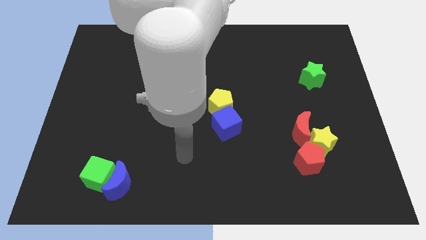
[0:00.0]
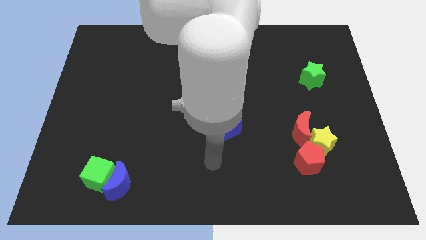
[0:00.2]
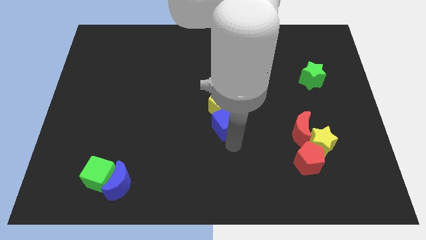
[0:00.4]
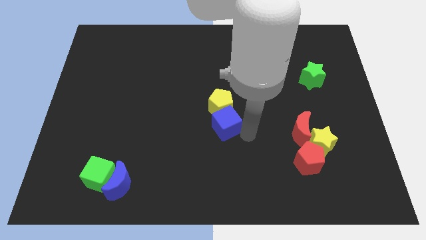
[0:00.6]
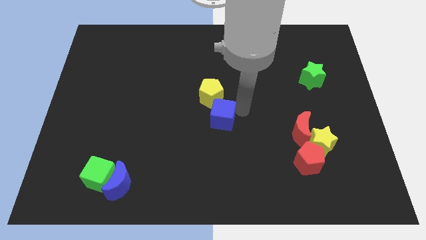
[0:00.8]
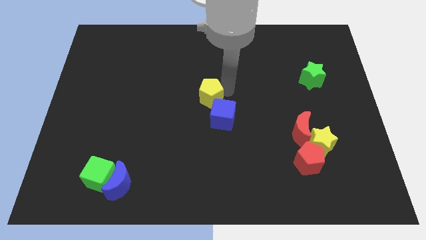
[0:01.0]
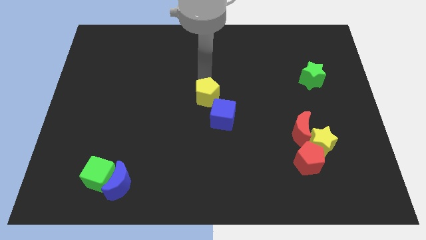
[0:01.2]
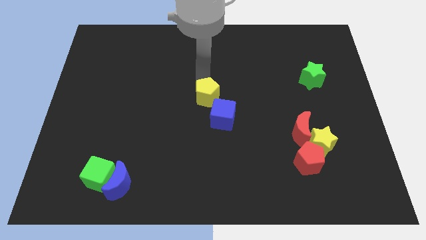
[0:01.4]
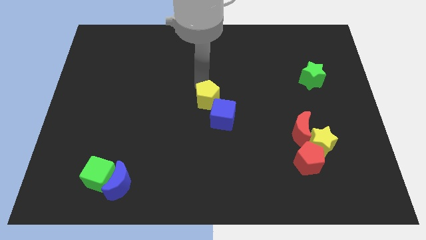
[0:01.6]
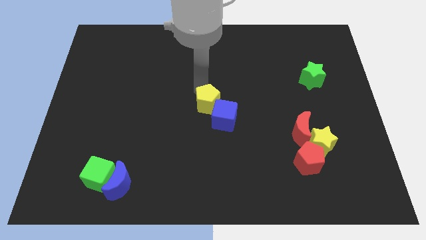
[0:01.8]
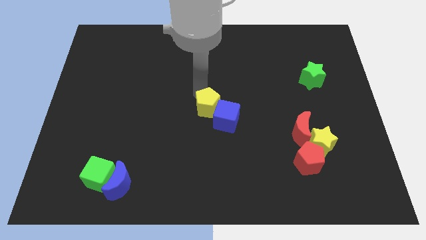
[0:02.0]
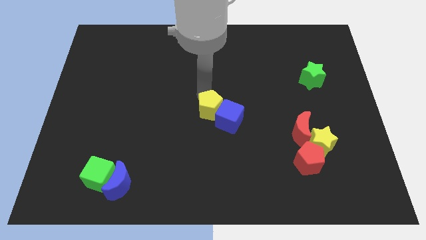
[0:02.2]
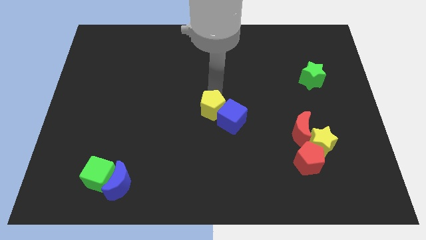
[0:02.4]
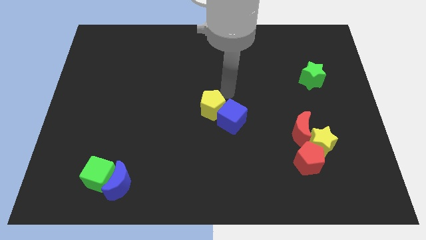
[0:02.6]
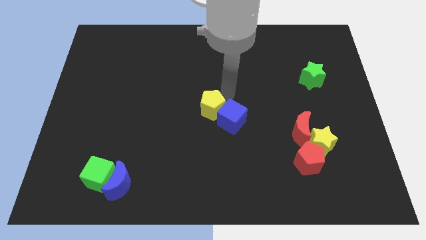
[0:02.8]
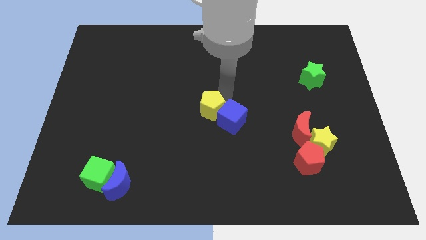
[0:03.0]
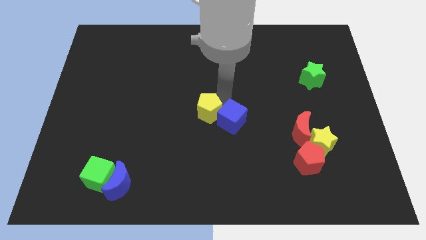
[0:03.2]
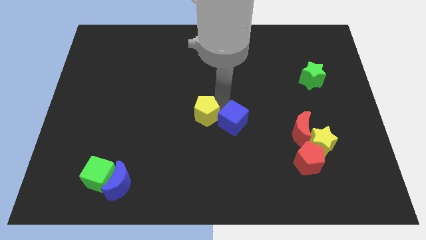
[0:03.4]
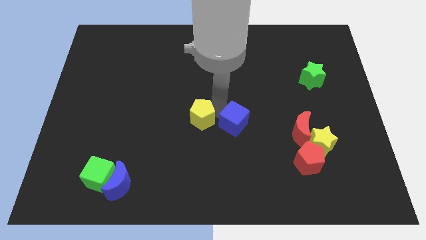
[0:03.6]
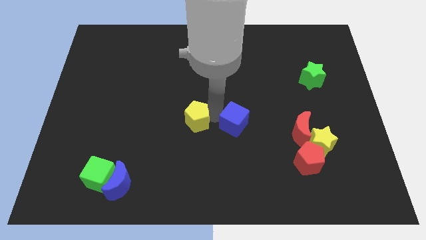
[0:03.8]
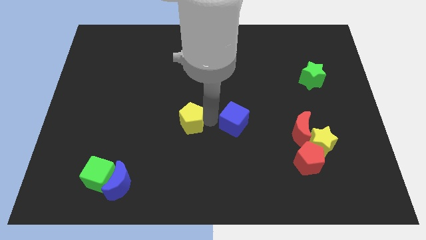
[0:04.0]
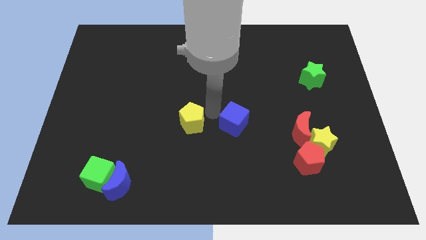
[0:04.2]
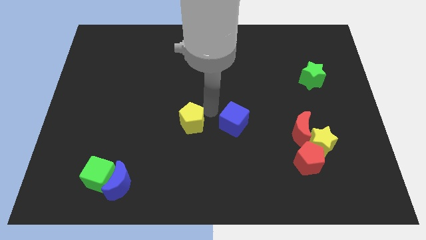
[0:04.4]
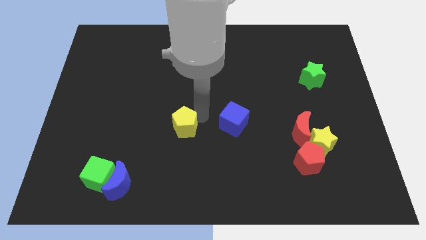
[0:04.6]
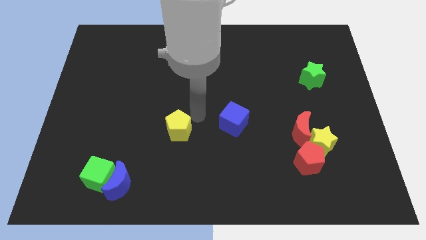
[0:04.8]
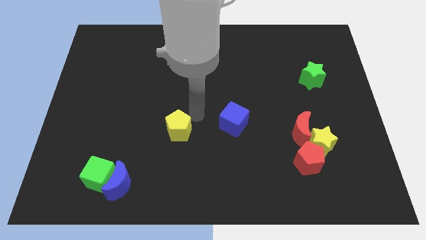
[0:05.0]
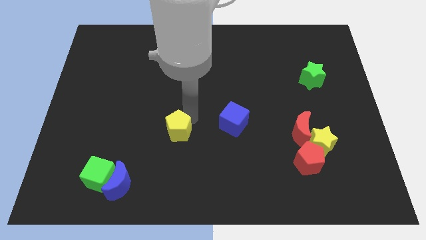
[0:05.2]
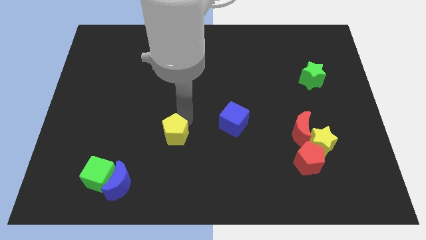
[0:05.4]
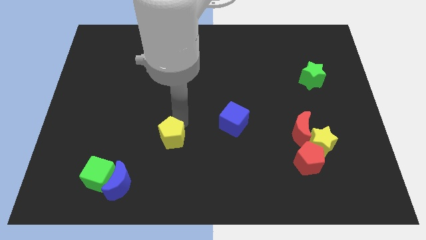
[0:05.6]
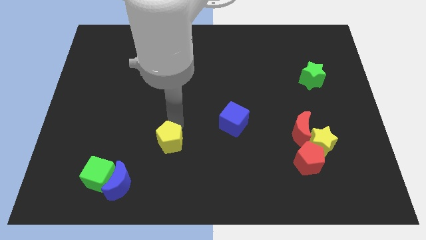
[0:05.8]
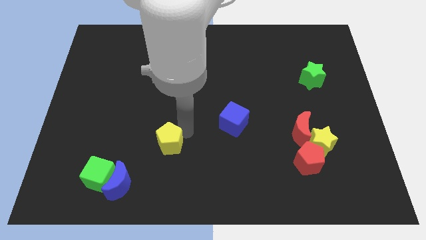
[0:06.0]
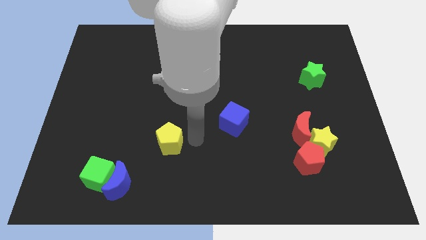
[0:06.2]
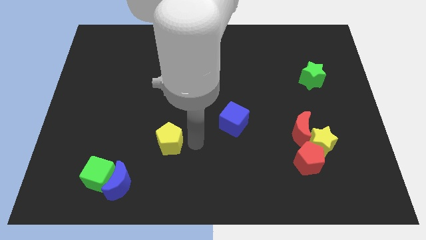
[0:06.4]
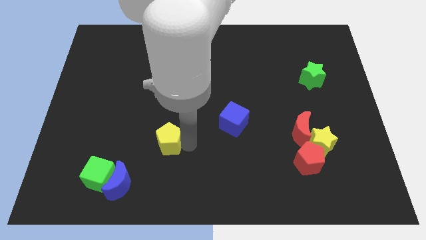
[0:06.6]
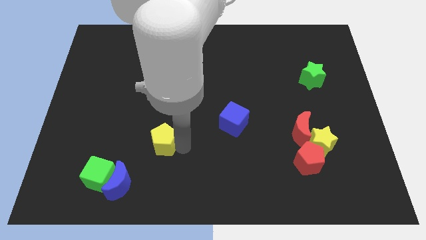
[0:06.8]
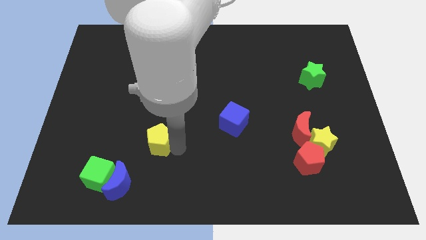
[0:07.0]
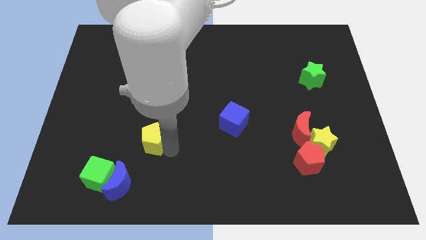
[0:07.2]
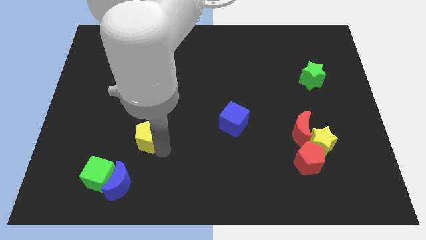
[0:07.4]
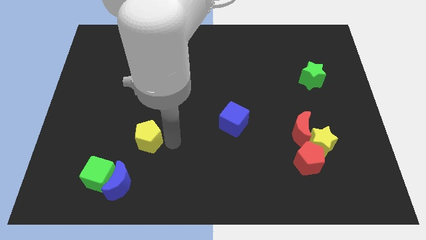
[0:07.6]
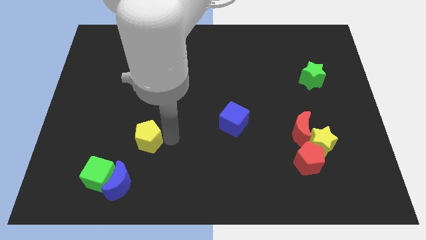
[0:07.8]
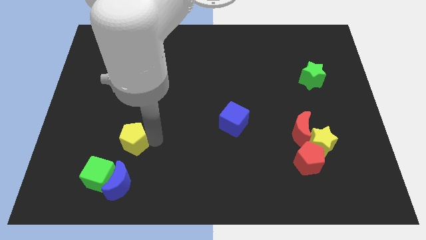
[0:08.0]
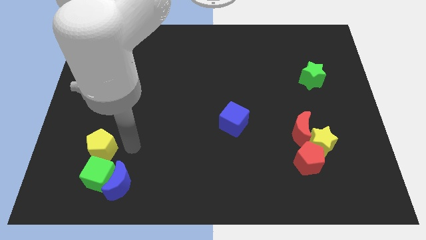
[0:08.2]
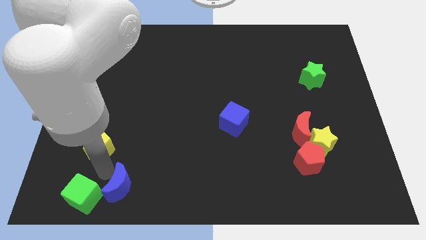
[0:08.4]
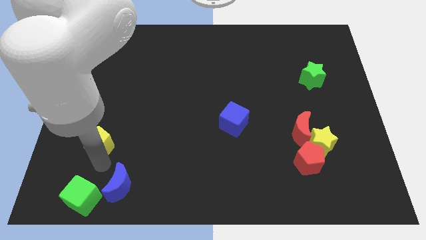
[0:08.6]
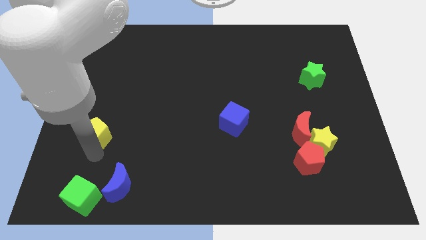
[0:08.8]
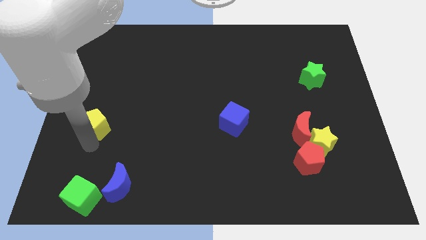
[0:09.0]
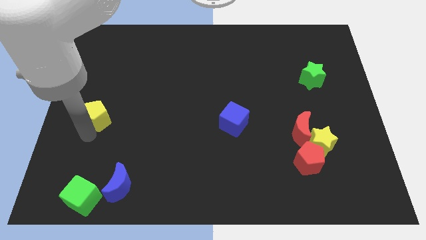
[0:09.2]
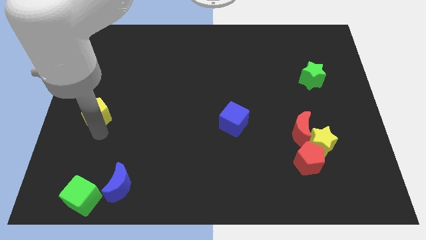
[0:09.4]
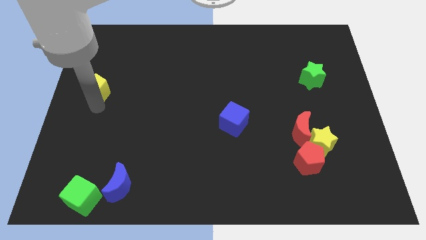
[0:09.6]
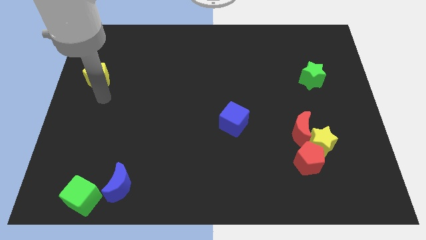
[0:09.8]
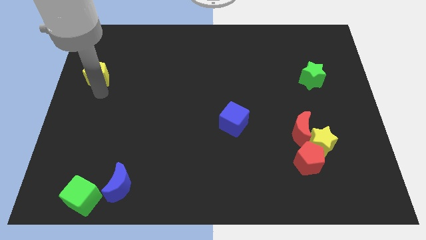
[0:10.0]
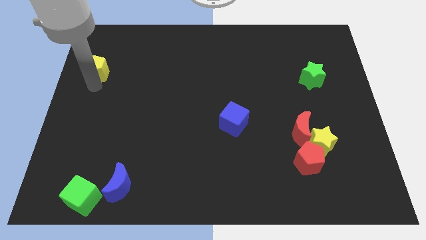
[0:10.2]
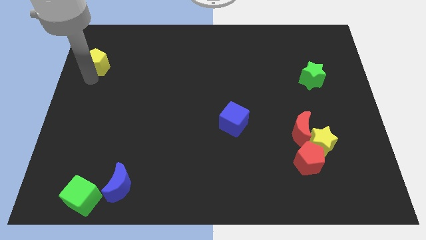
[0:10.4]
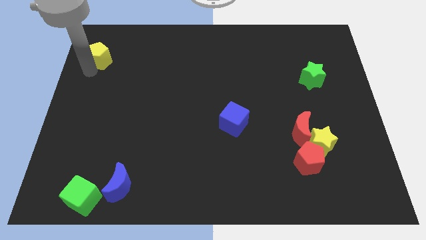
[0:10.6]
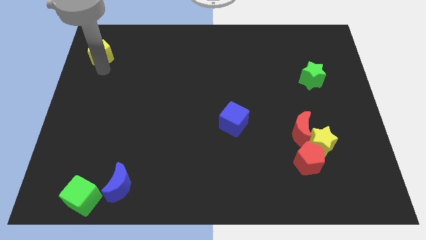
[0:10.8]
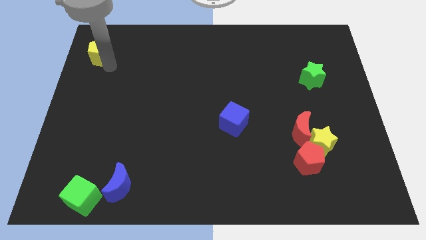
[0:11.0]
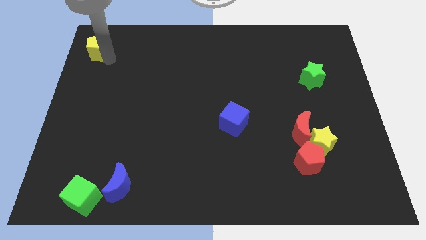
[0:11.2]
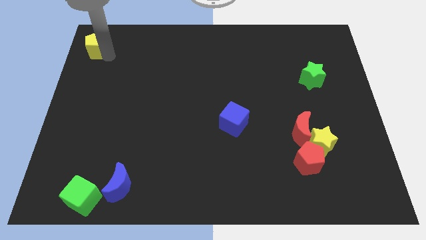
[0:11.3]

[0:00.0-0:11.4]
move the yellow pentagon to the top left

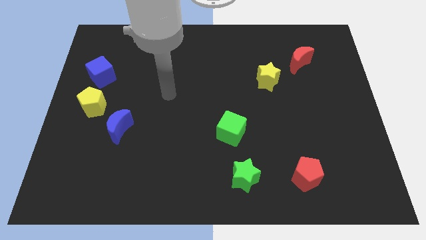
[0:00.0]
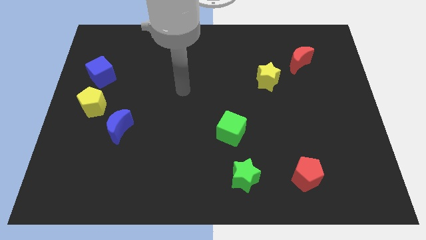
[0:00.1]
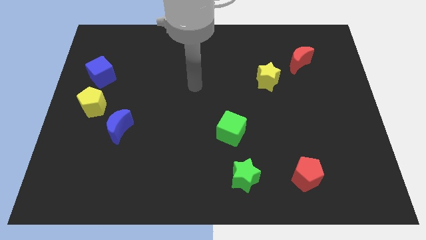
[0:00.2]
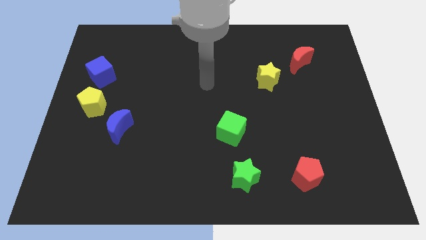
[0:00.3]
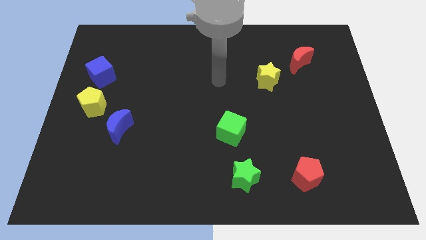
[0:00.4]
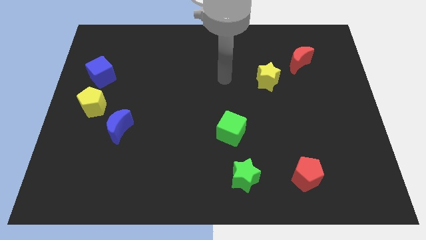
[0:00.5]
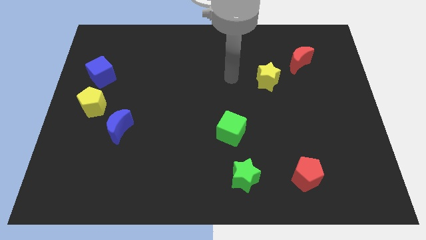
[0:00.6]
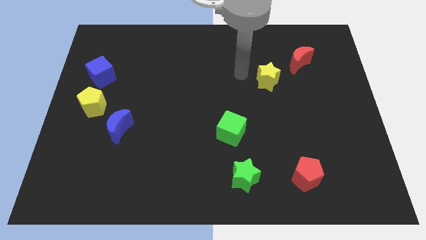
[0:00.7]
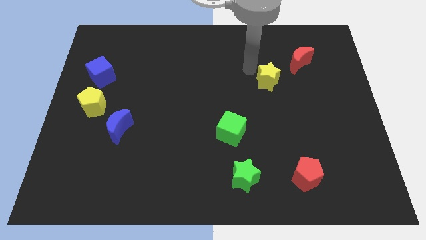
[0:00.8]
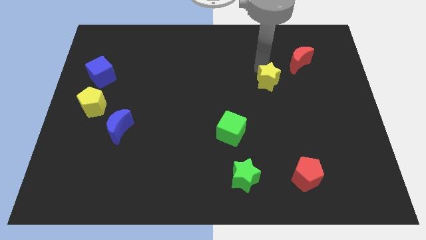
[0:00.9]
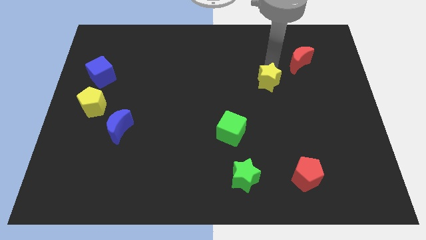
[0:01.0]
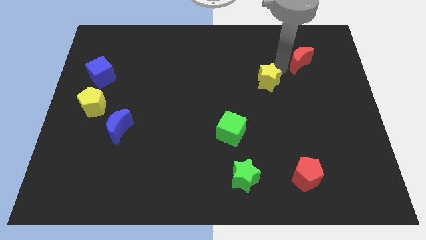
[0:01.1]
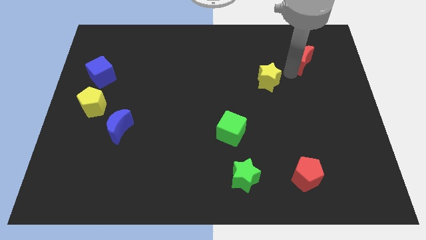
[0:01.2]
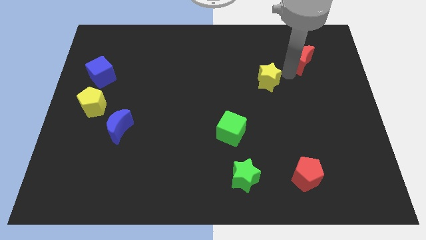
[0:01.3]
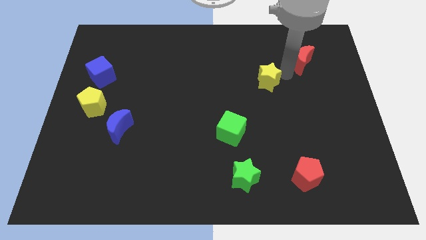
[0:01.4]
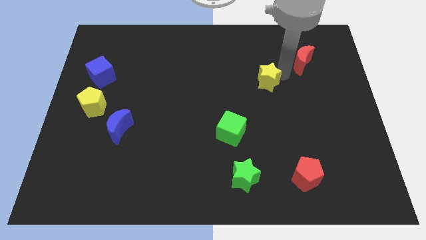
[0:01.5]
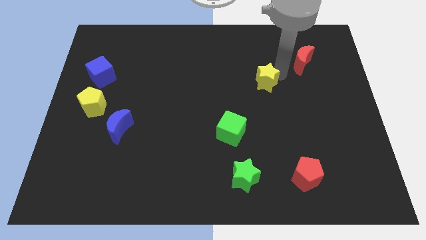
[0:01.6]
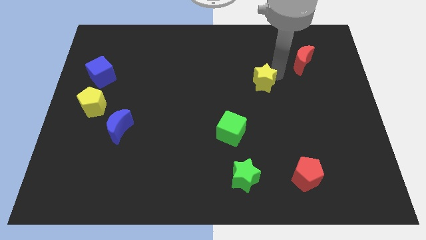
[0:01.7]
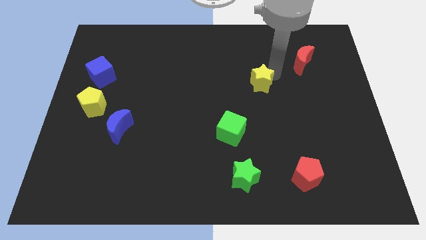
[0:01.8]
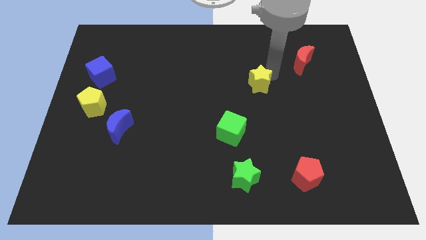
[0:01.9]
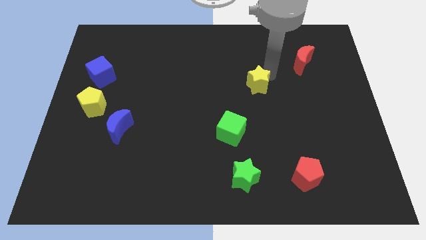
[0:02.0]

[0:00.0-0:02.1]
put the yellow star to the center
